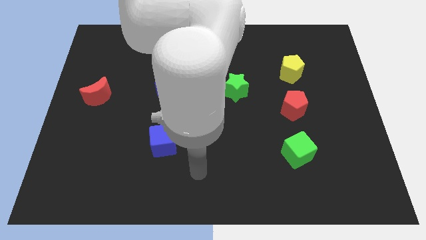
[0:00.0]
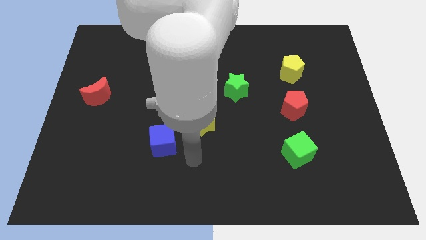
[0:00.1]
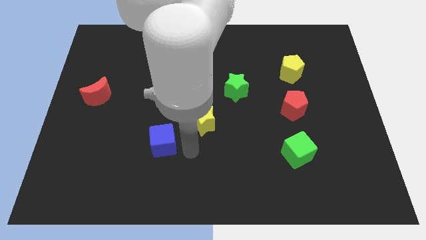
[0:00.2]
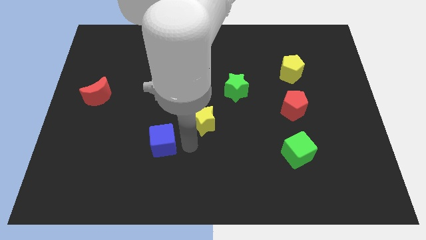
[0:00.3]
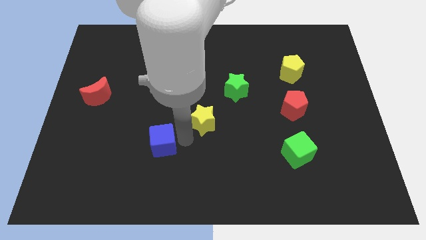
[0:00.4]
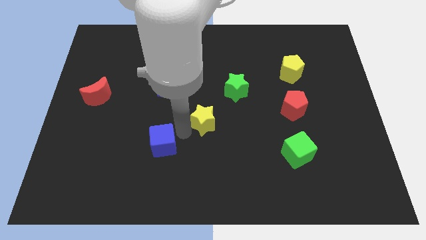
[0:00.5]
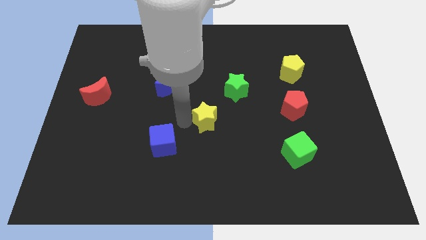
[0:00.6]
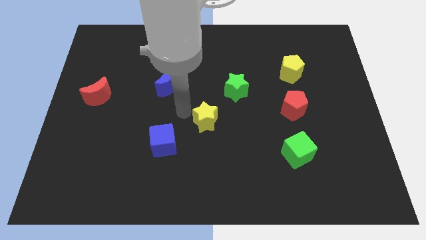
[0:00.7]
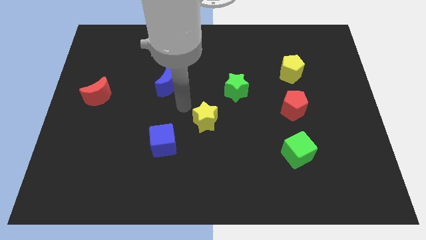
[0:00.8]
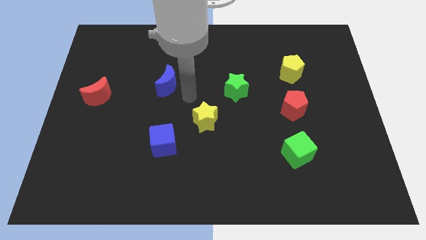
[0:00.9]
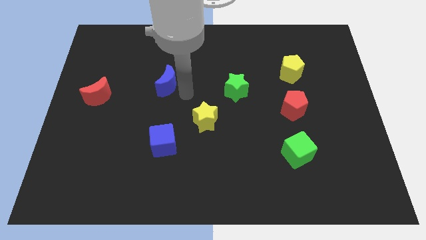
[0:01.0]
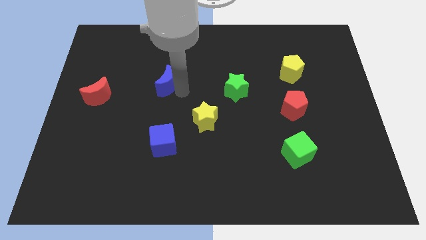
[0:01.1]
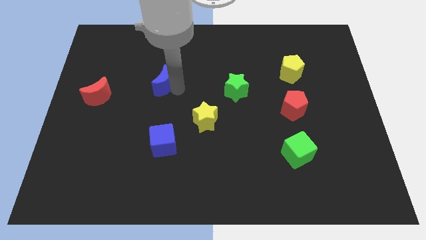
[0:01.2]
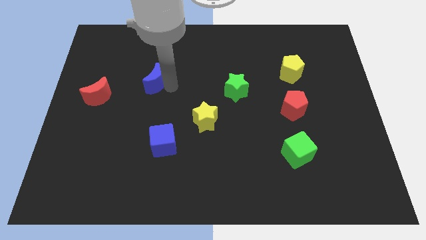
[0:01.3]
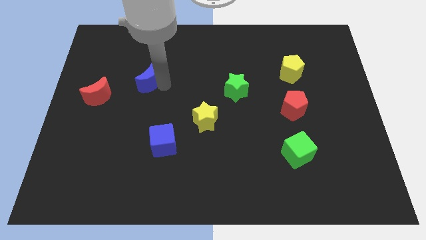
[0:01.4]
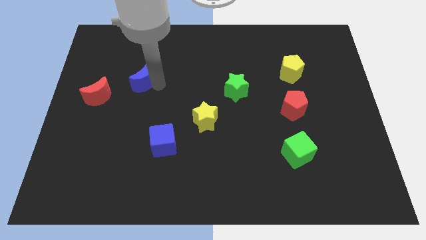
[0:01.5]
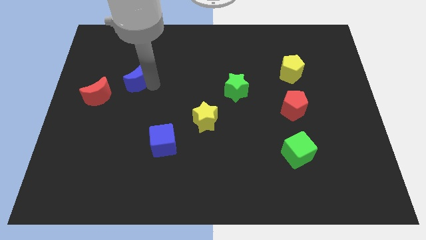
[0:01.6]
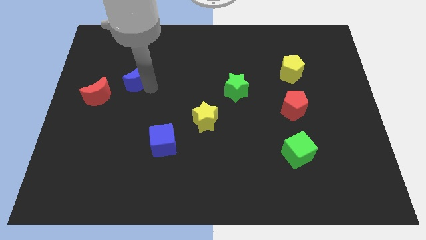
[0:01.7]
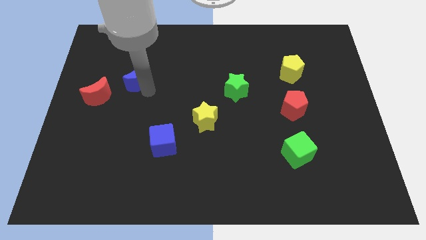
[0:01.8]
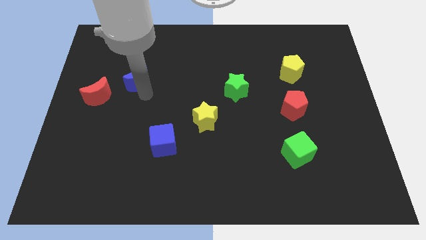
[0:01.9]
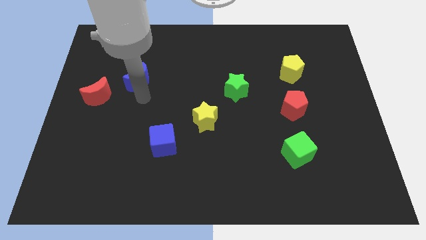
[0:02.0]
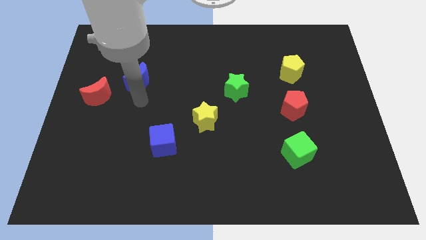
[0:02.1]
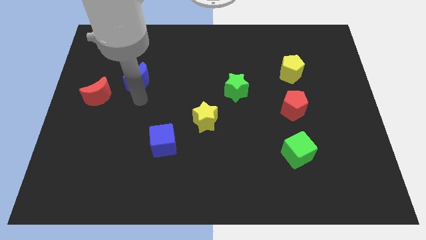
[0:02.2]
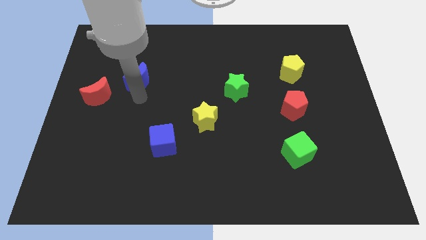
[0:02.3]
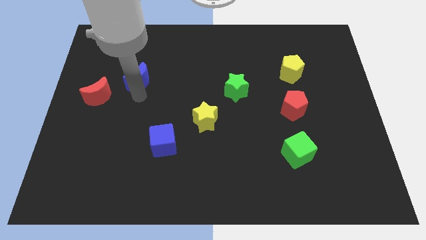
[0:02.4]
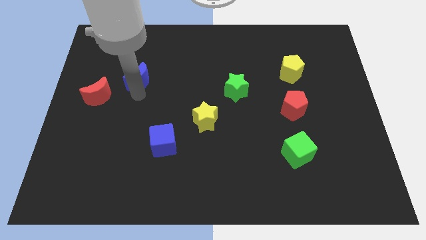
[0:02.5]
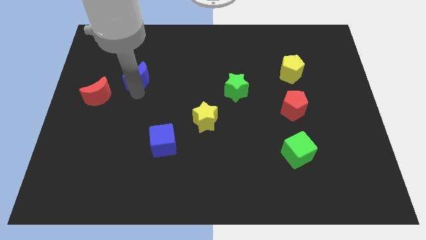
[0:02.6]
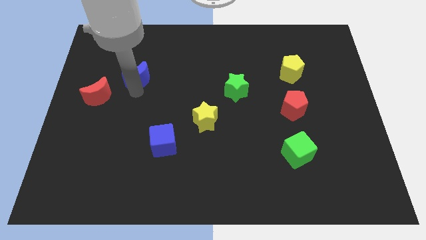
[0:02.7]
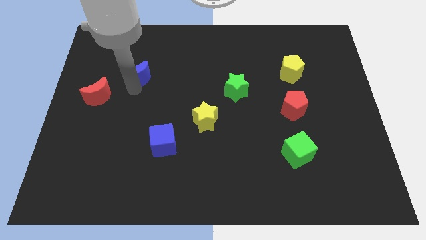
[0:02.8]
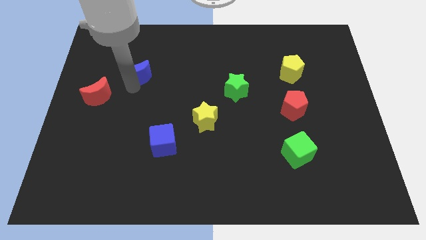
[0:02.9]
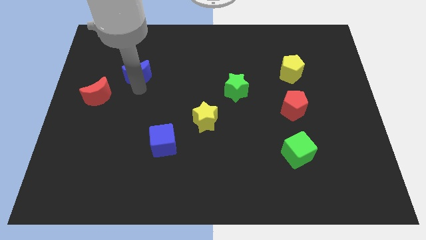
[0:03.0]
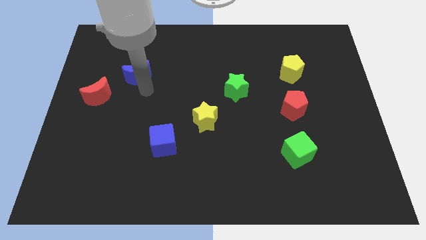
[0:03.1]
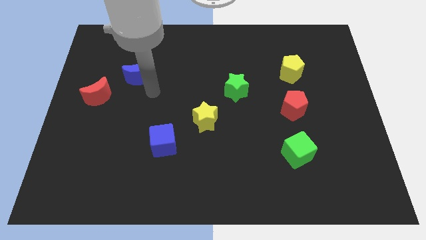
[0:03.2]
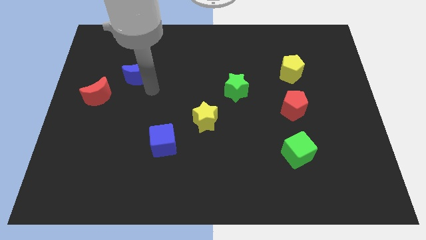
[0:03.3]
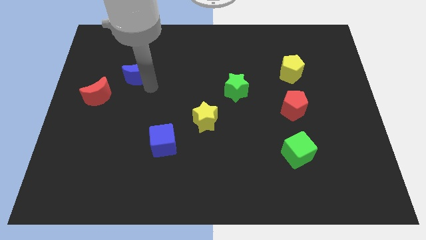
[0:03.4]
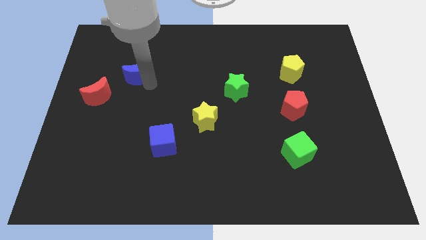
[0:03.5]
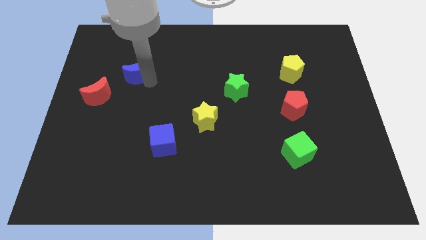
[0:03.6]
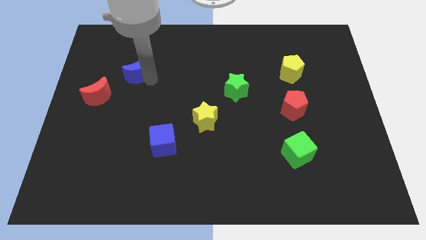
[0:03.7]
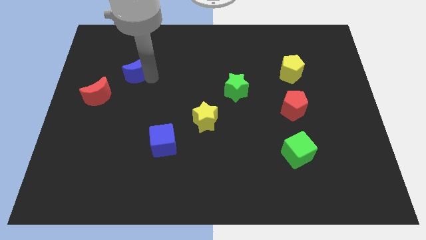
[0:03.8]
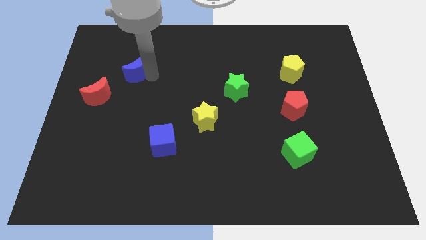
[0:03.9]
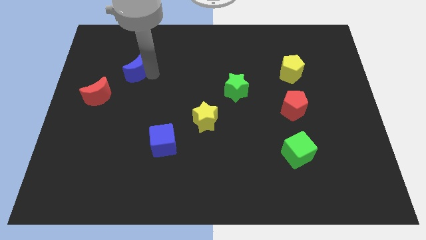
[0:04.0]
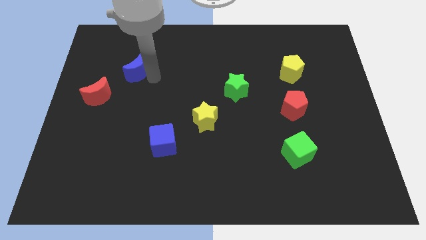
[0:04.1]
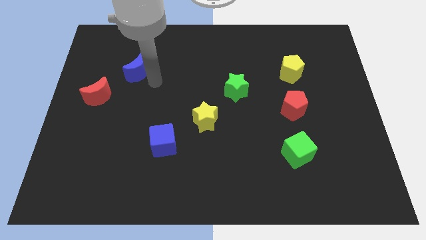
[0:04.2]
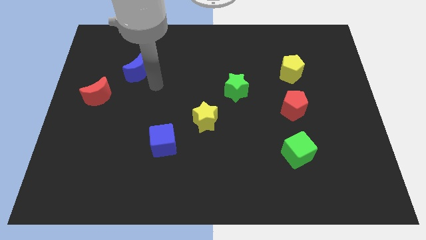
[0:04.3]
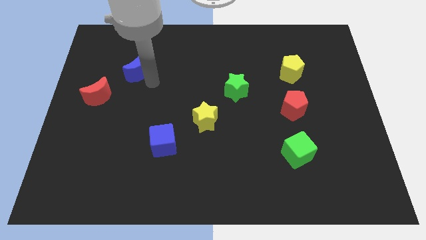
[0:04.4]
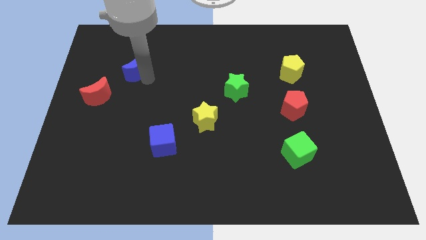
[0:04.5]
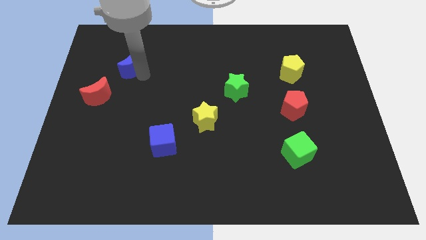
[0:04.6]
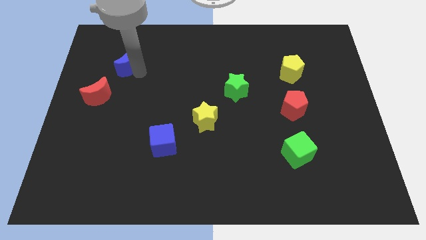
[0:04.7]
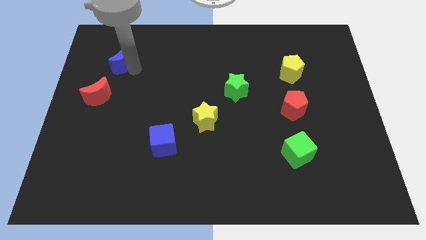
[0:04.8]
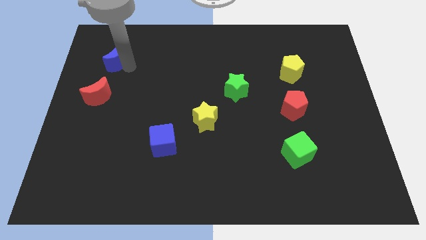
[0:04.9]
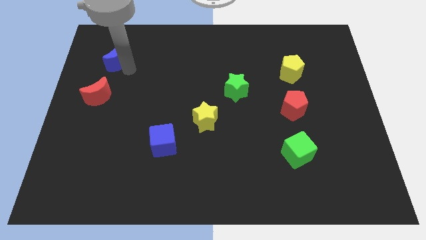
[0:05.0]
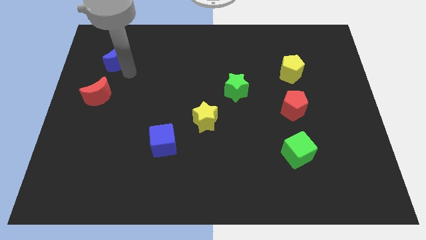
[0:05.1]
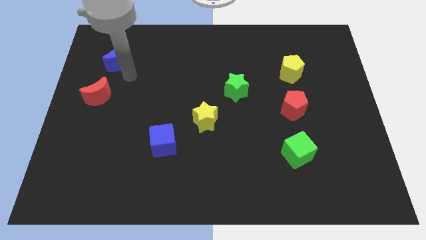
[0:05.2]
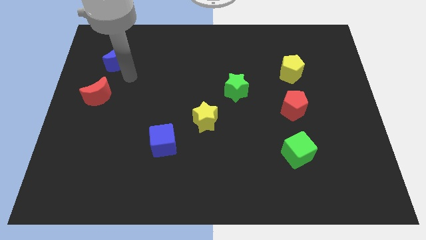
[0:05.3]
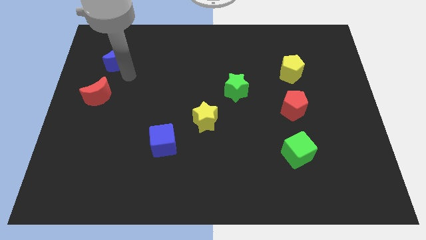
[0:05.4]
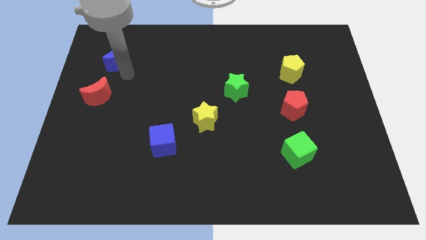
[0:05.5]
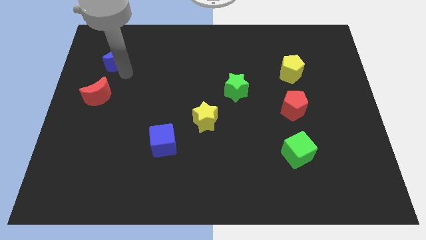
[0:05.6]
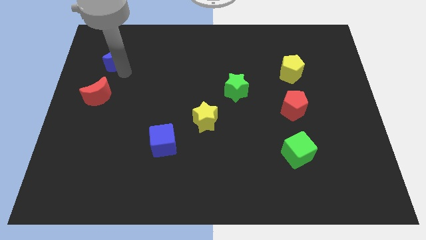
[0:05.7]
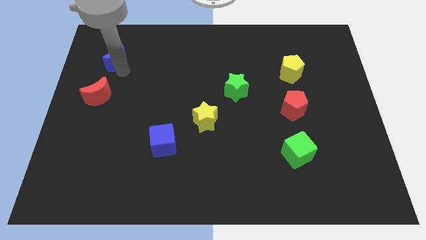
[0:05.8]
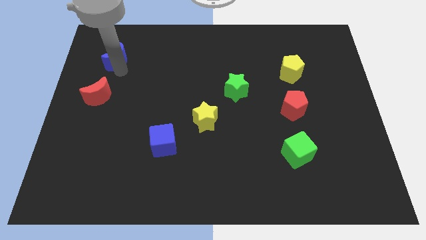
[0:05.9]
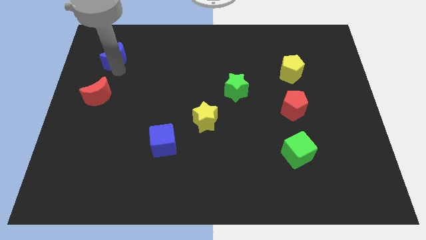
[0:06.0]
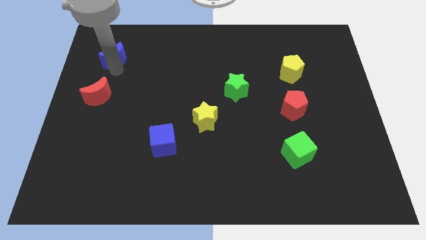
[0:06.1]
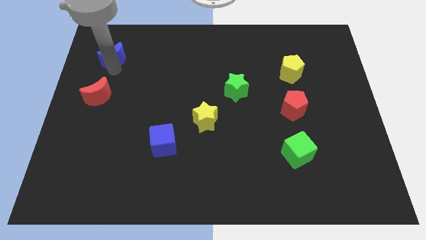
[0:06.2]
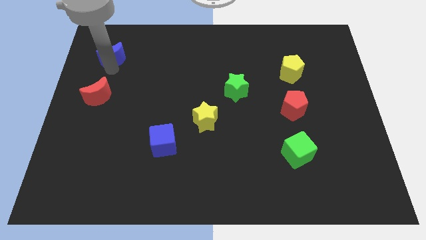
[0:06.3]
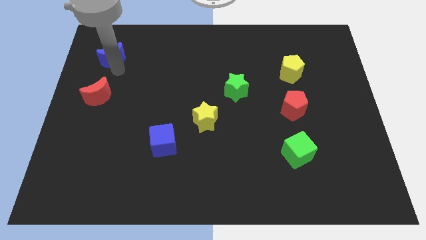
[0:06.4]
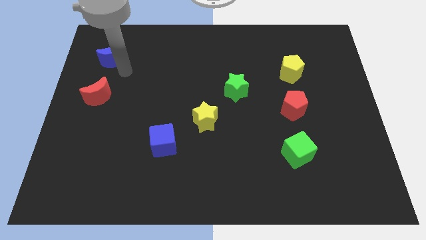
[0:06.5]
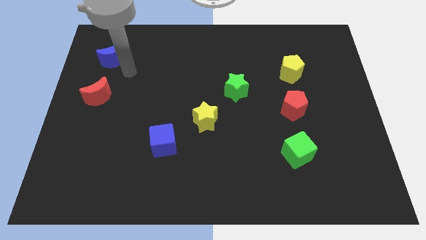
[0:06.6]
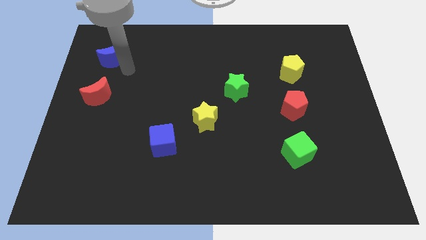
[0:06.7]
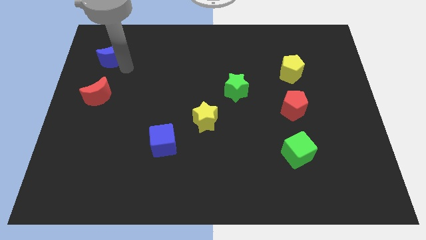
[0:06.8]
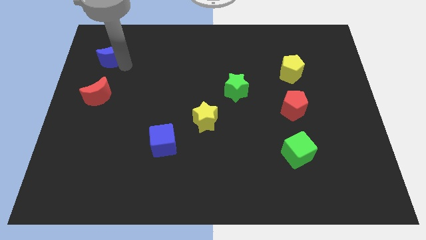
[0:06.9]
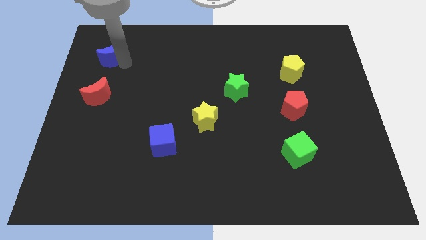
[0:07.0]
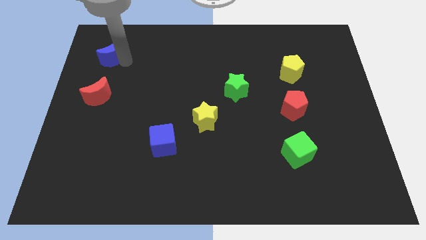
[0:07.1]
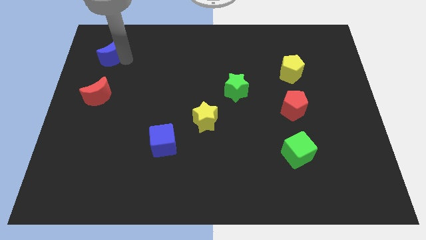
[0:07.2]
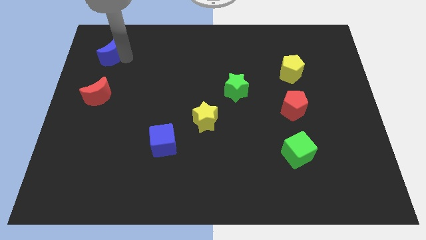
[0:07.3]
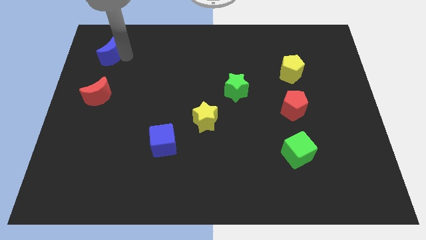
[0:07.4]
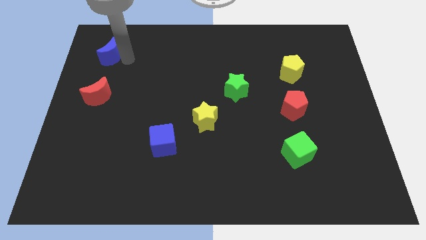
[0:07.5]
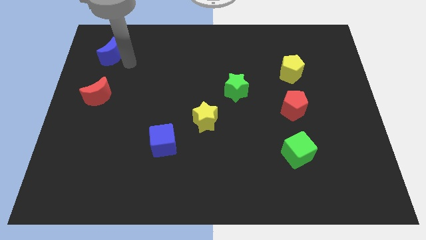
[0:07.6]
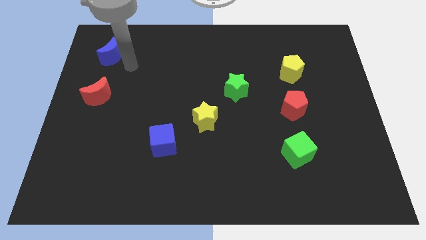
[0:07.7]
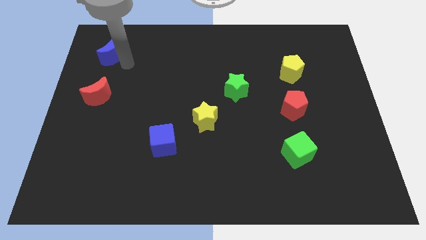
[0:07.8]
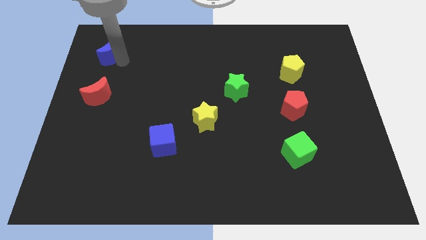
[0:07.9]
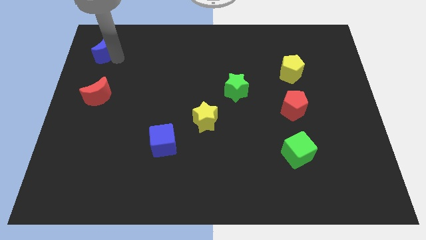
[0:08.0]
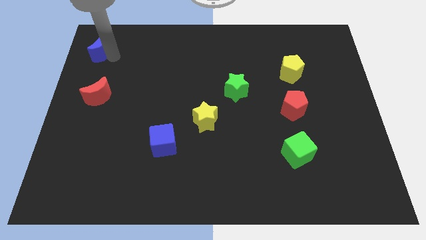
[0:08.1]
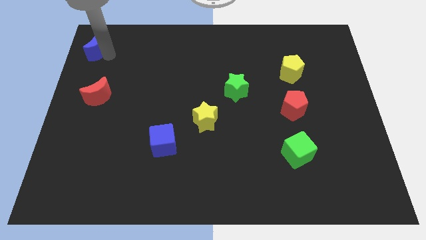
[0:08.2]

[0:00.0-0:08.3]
move the blue moon to the top left of the board
